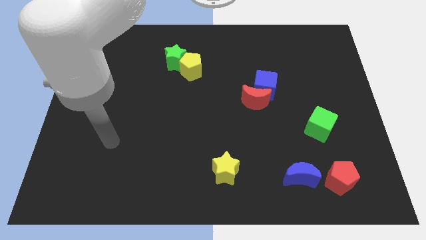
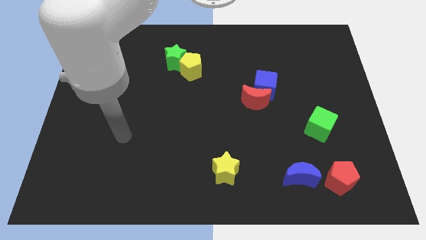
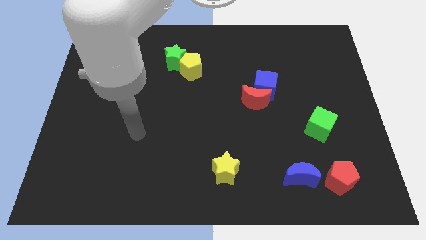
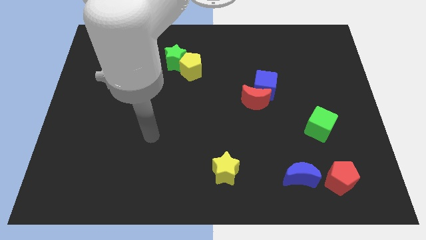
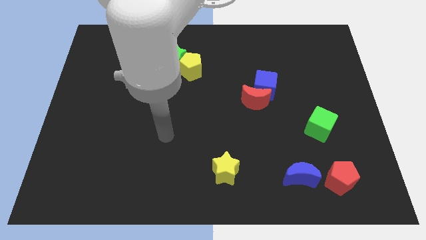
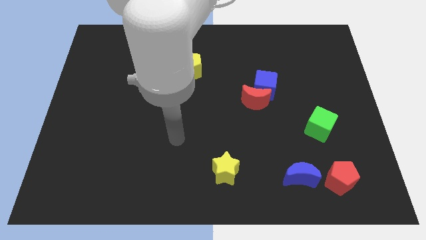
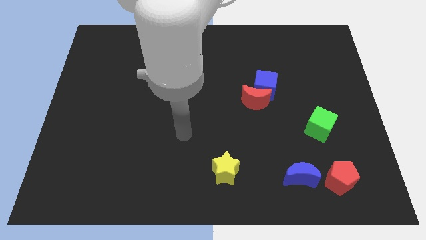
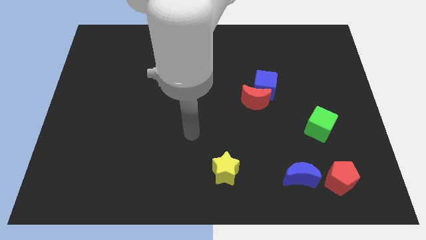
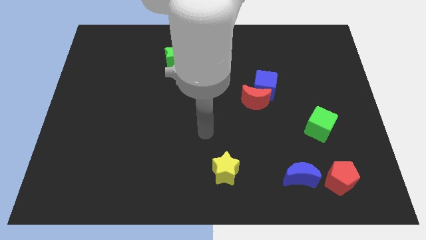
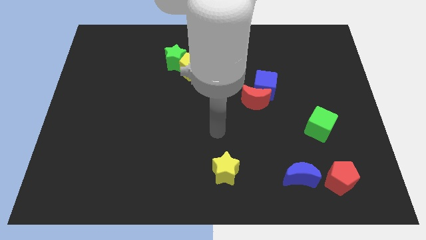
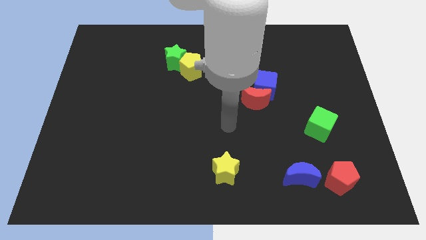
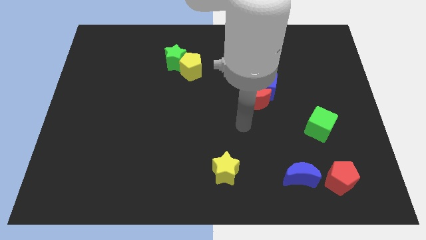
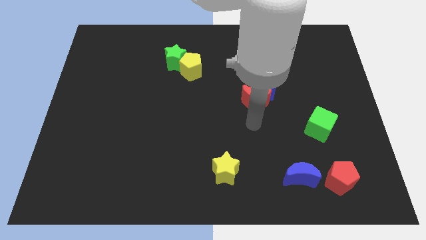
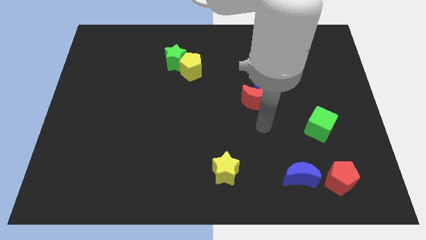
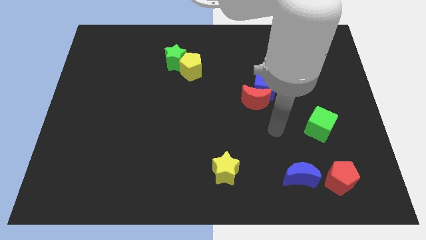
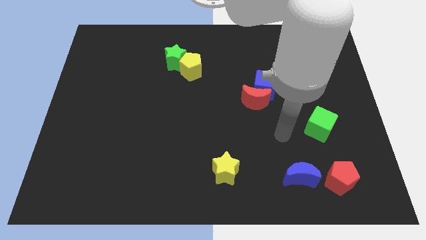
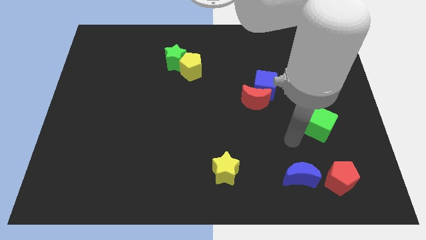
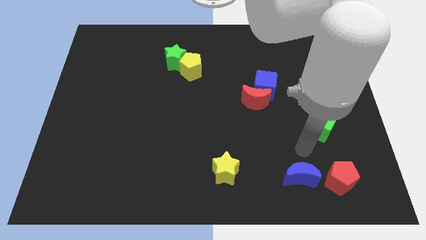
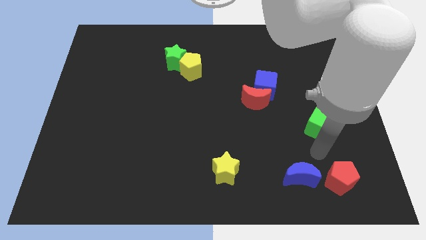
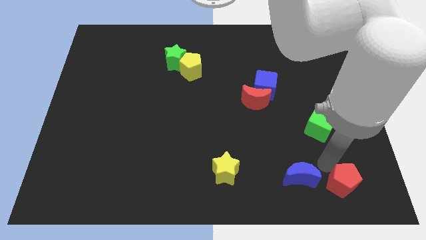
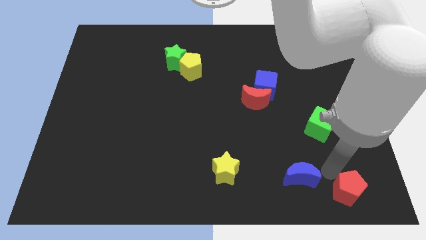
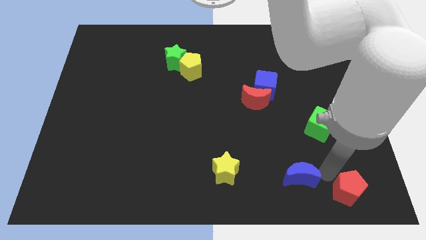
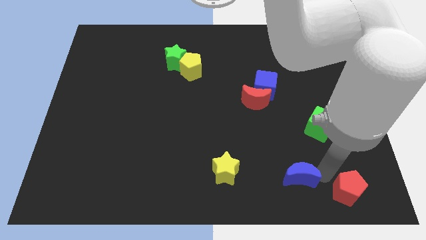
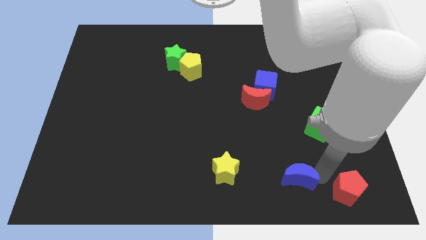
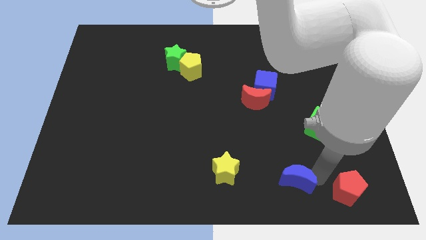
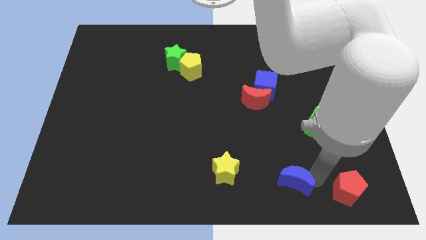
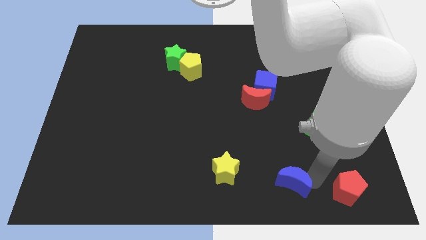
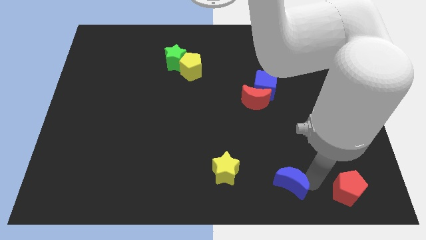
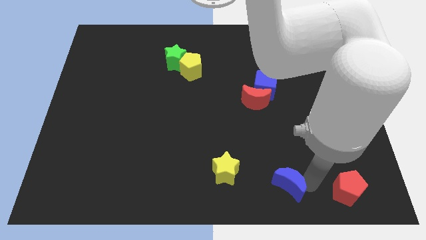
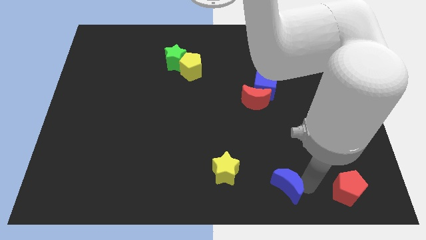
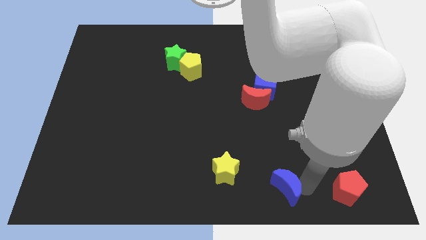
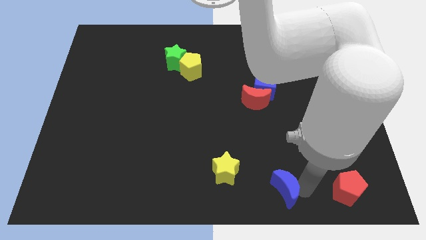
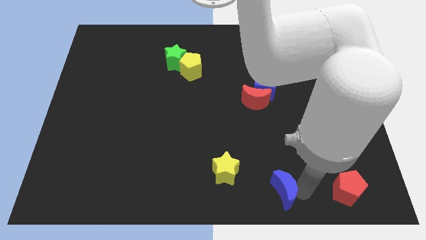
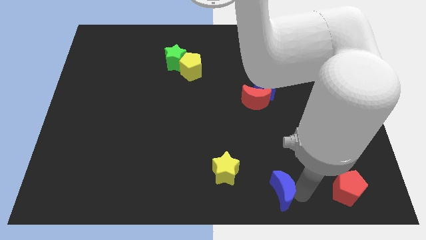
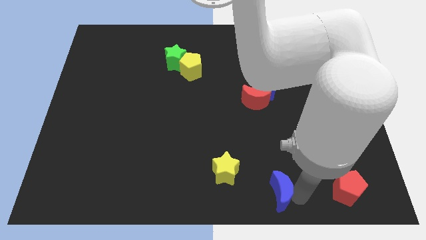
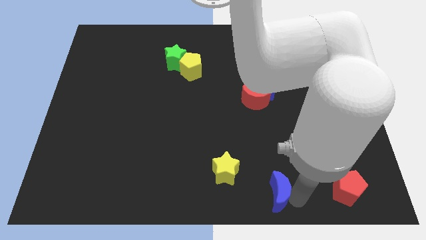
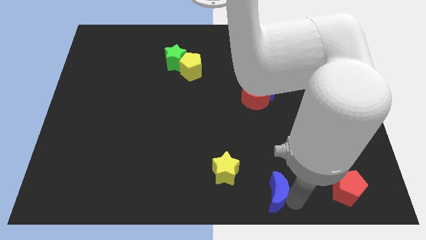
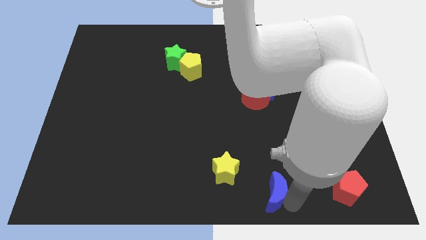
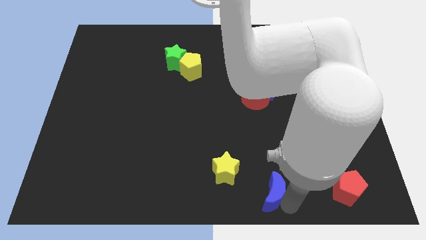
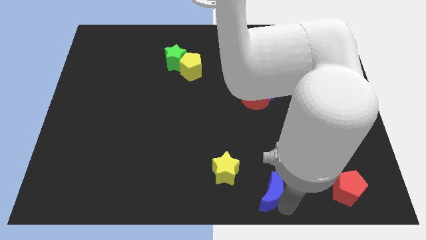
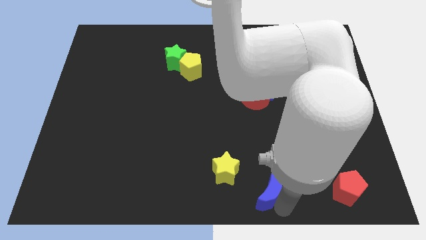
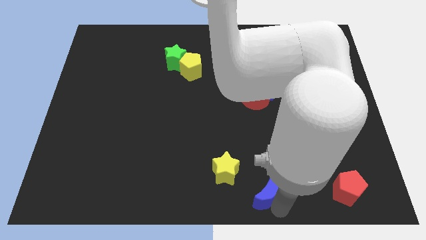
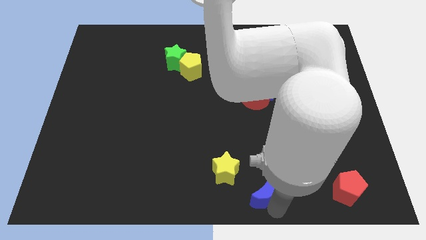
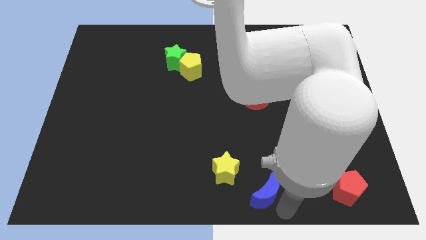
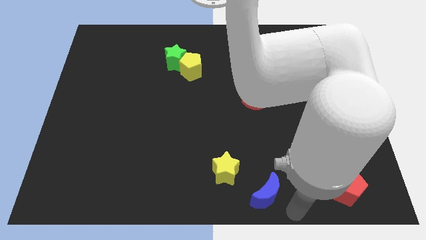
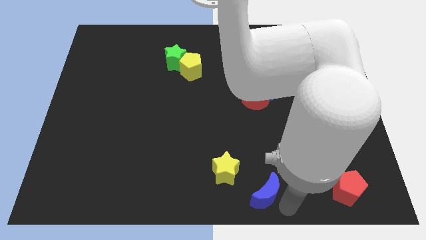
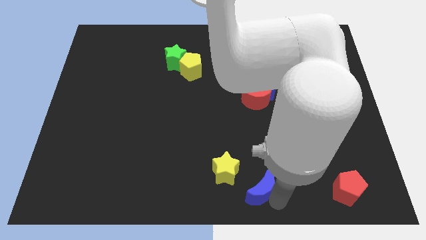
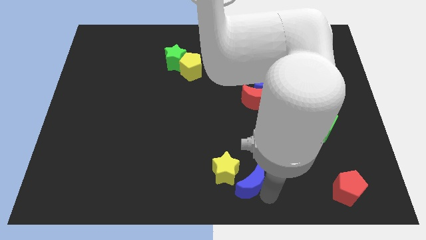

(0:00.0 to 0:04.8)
push the blue moon to the yellow star

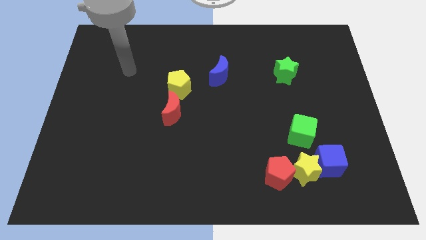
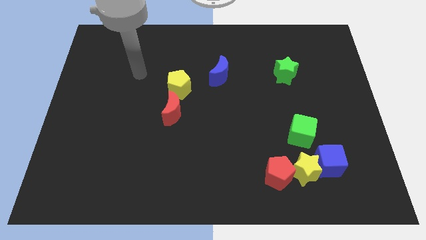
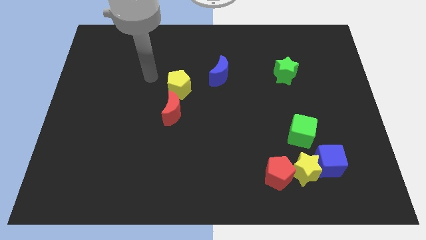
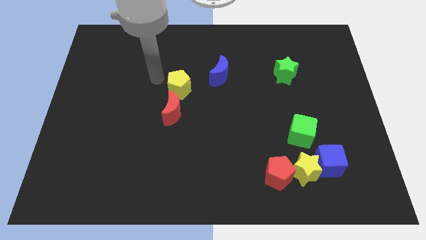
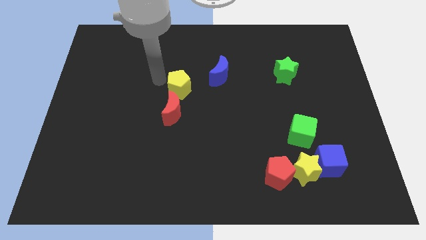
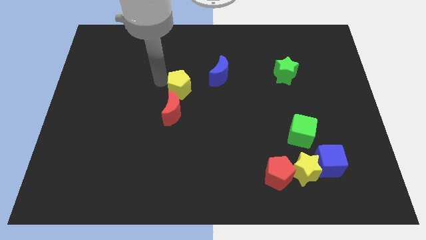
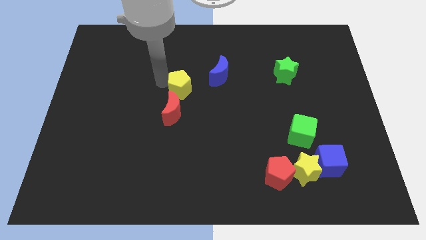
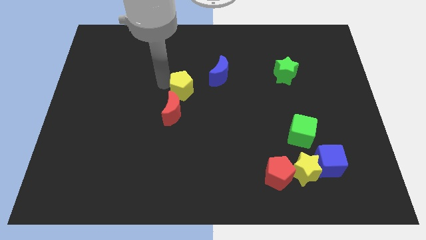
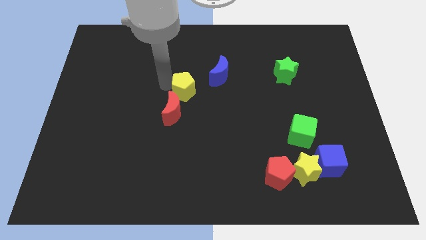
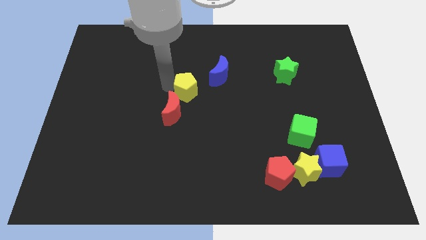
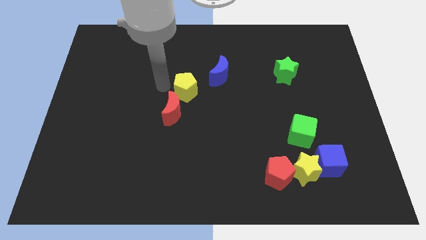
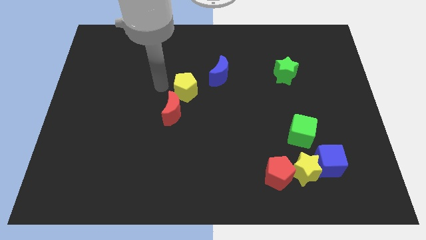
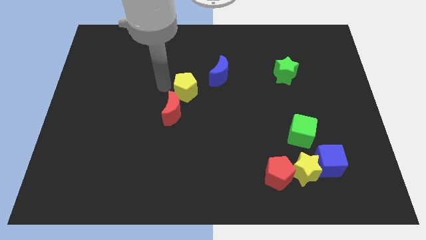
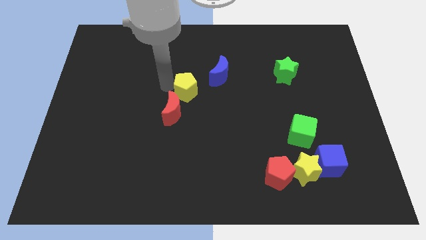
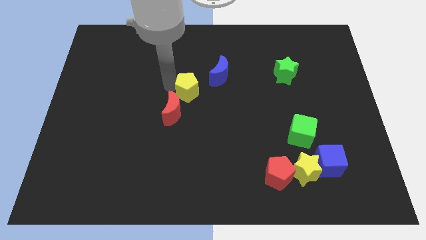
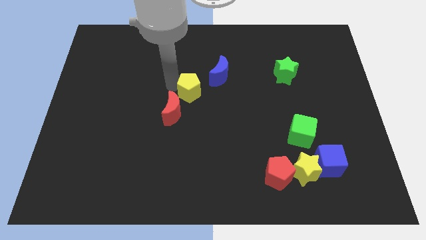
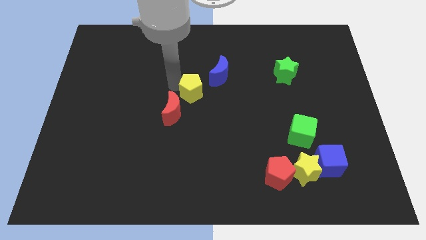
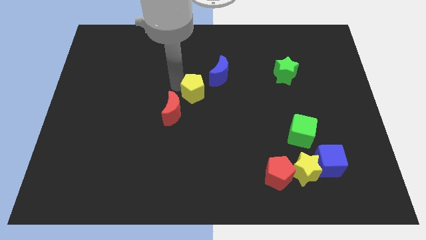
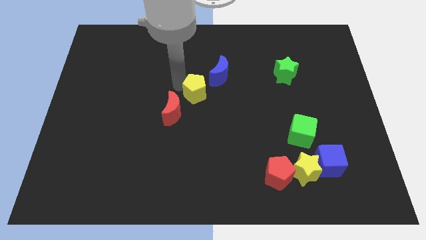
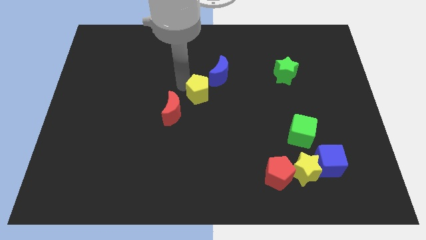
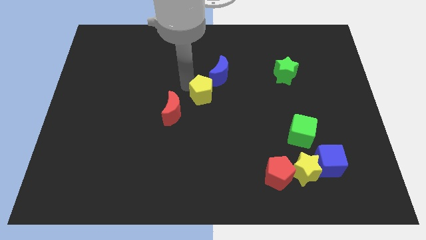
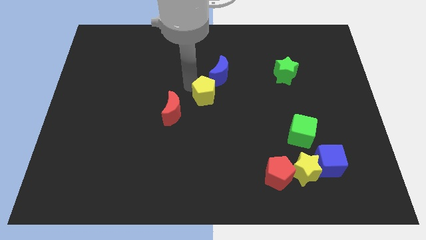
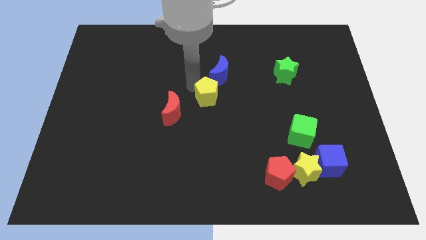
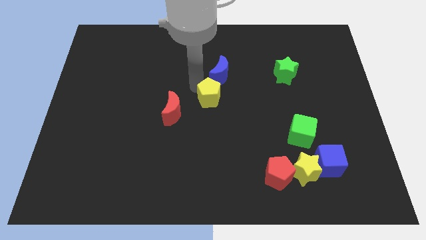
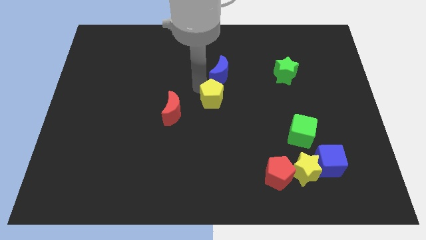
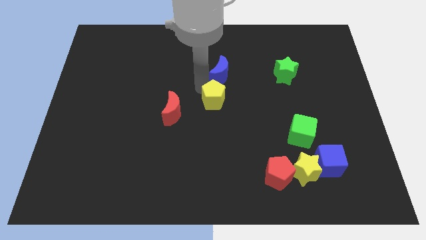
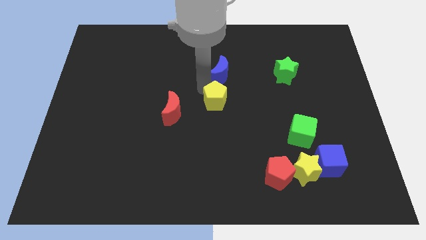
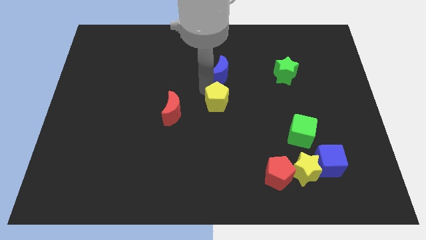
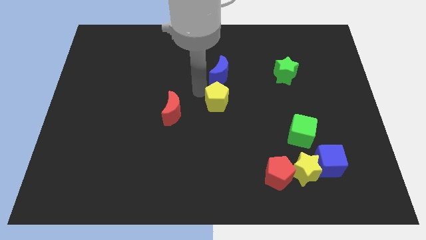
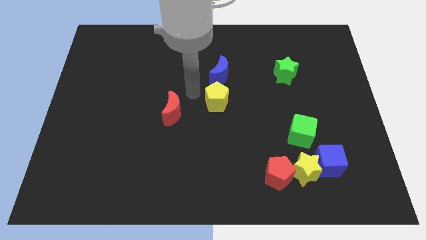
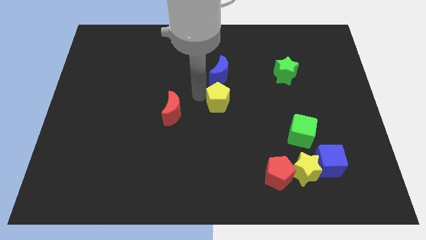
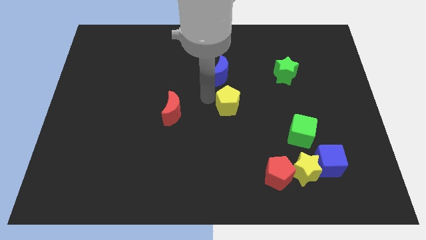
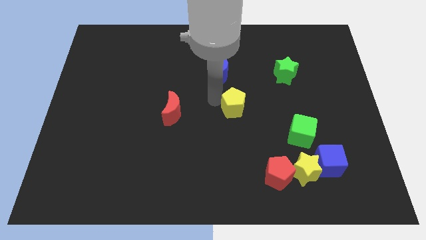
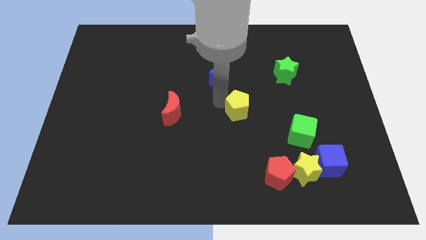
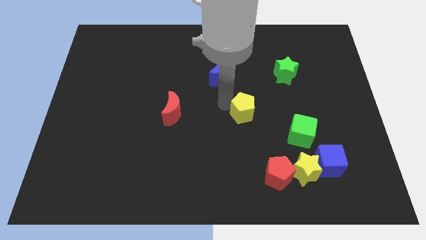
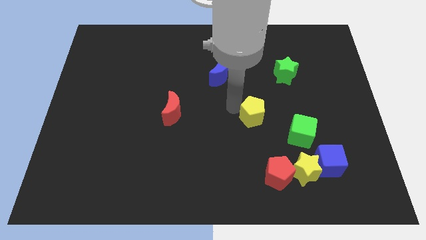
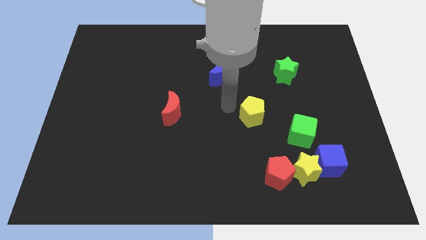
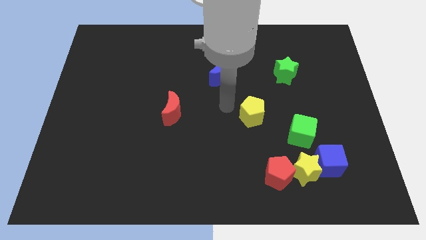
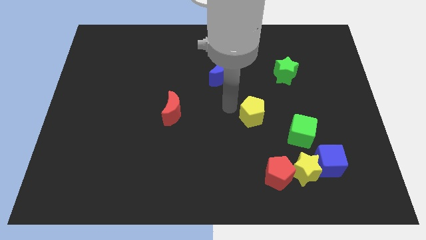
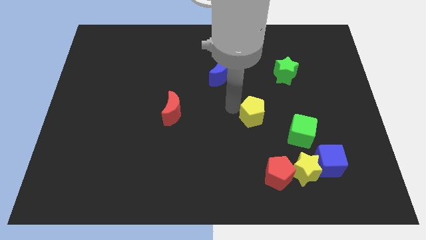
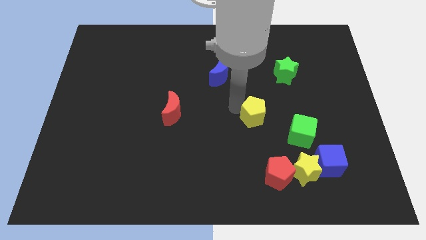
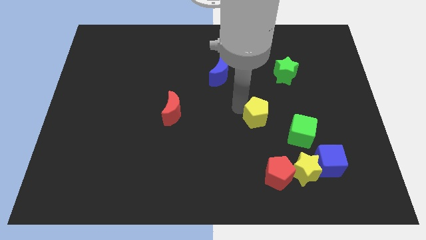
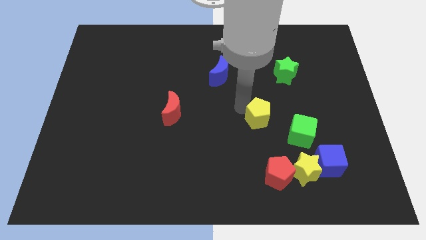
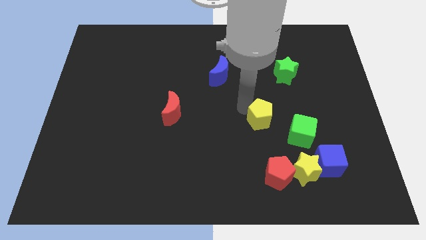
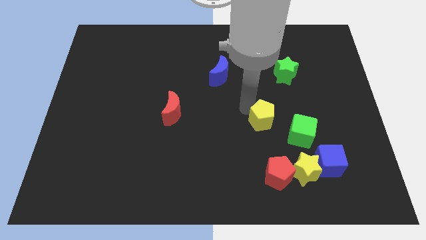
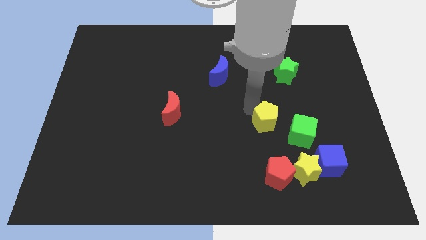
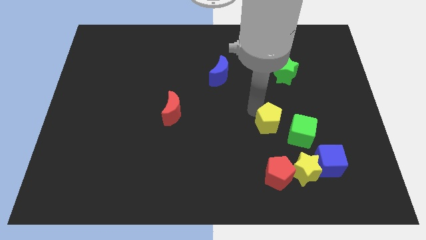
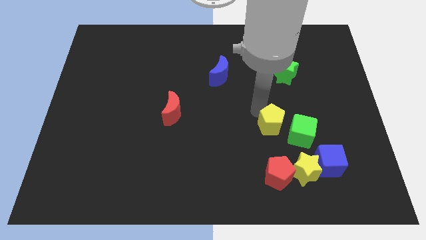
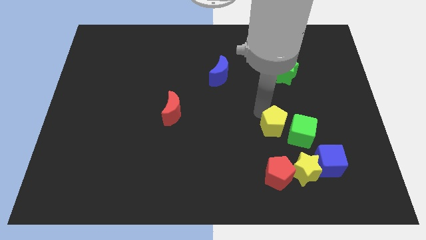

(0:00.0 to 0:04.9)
put the yellow pentagon to the green cube
